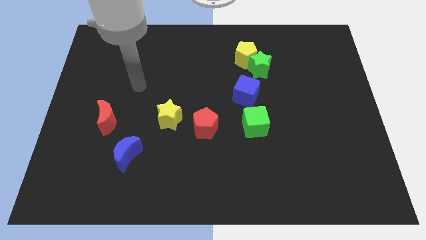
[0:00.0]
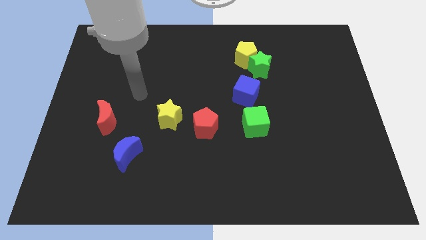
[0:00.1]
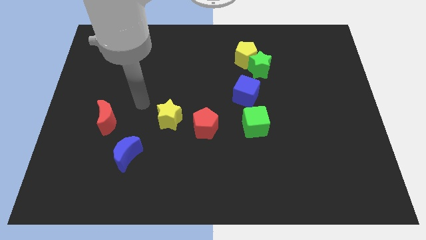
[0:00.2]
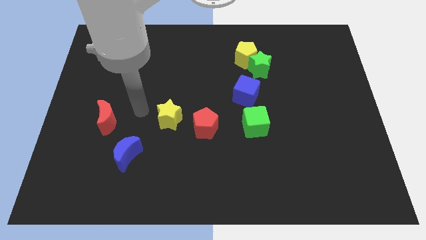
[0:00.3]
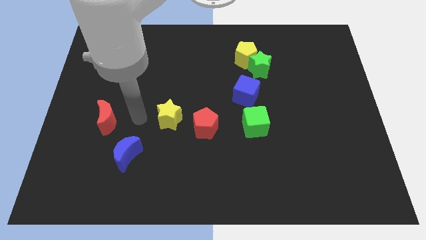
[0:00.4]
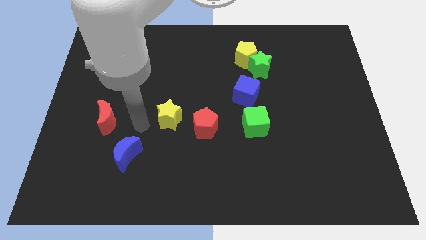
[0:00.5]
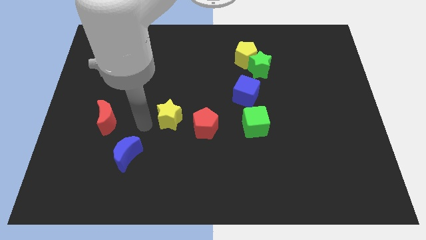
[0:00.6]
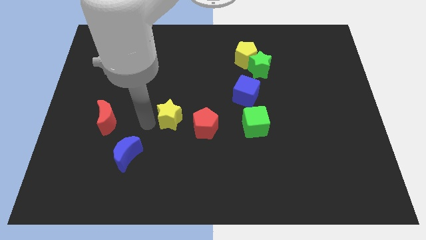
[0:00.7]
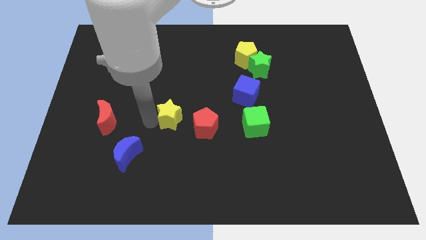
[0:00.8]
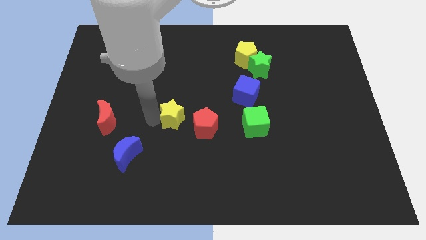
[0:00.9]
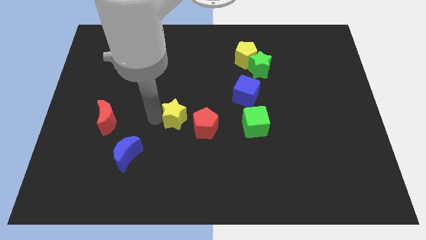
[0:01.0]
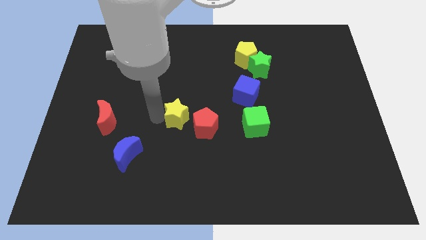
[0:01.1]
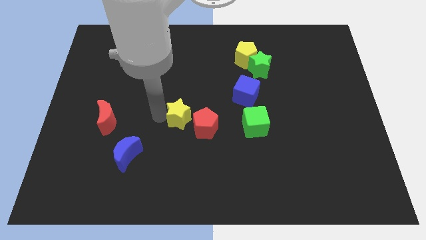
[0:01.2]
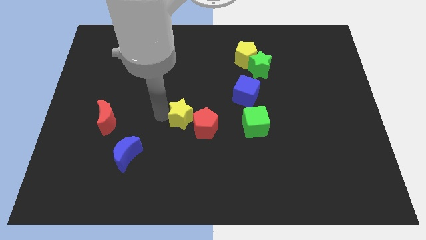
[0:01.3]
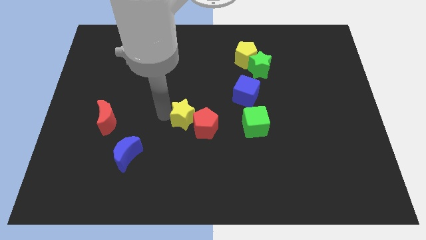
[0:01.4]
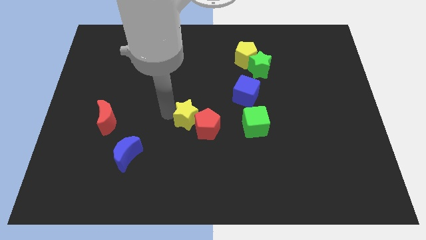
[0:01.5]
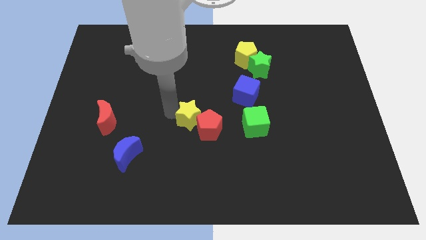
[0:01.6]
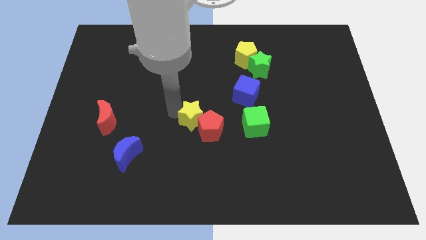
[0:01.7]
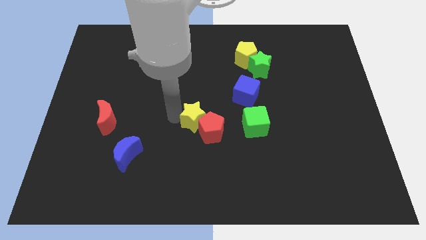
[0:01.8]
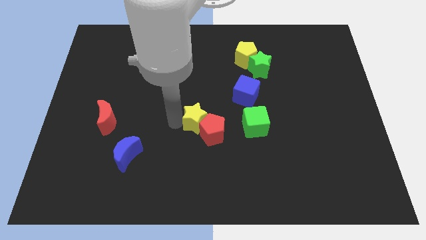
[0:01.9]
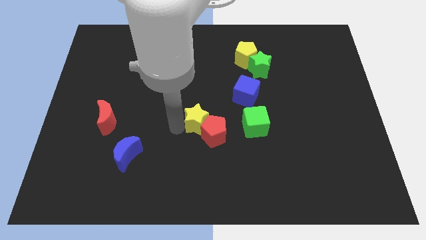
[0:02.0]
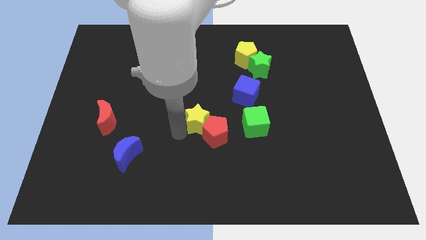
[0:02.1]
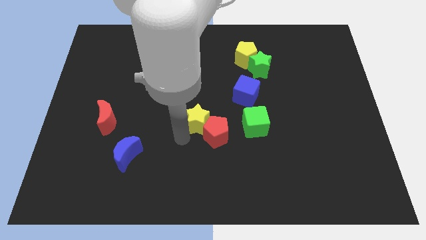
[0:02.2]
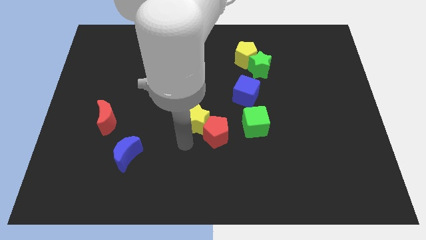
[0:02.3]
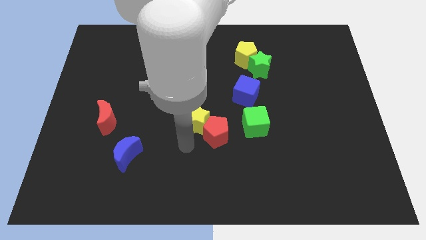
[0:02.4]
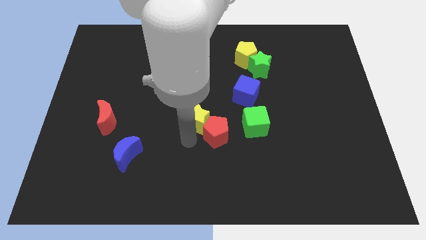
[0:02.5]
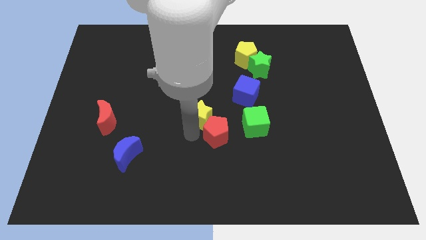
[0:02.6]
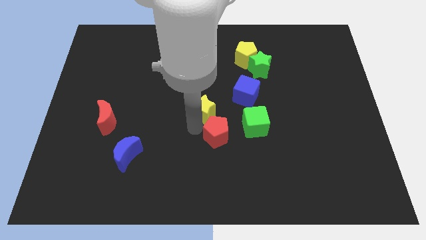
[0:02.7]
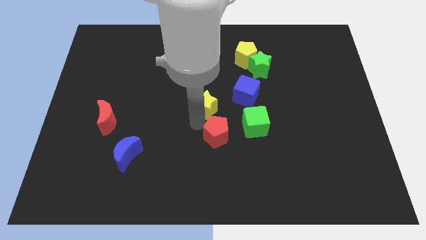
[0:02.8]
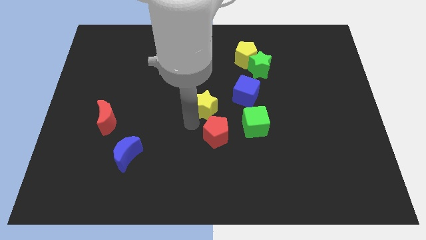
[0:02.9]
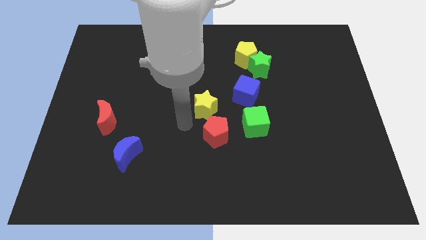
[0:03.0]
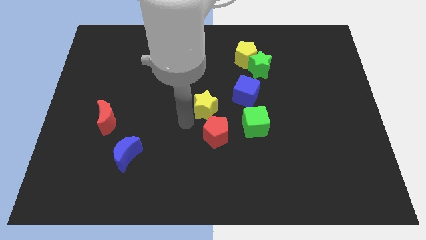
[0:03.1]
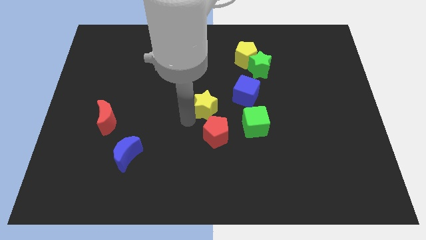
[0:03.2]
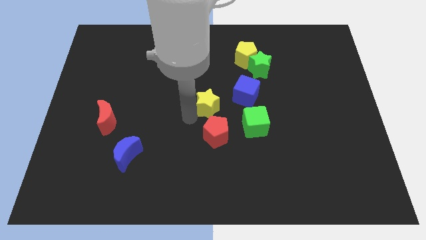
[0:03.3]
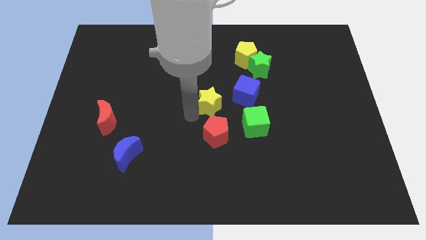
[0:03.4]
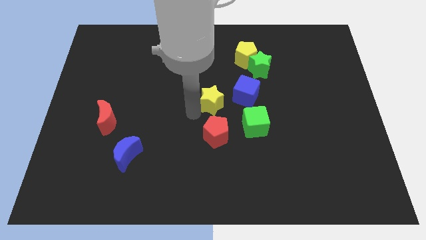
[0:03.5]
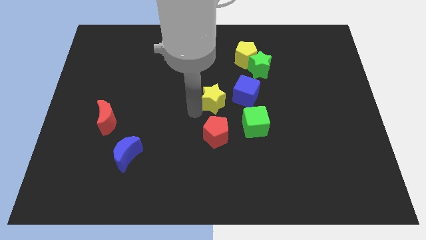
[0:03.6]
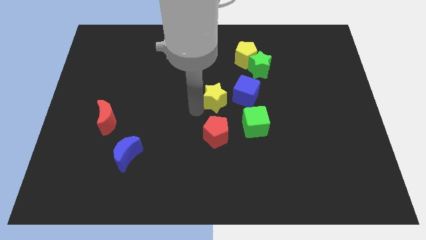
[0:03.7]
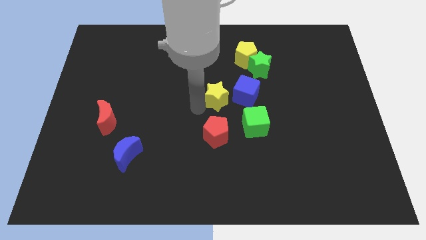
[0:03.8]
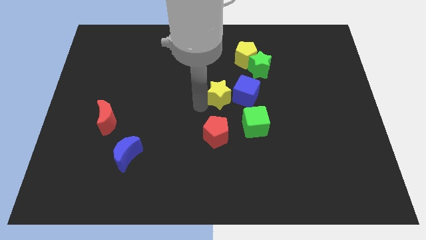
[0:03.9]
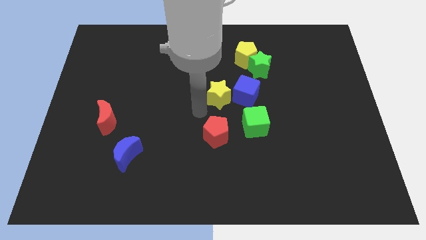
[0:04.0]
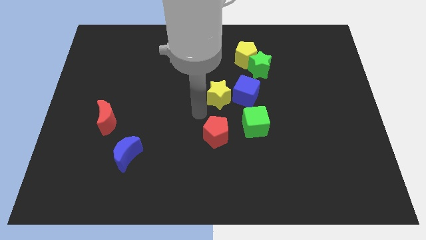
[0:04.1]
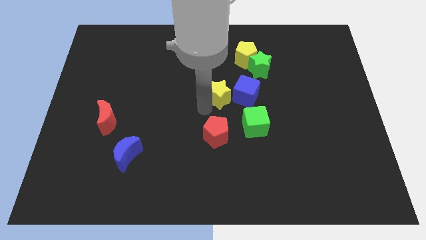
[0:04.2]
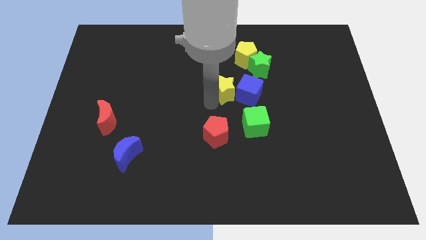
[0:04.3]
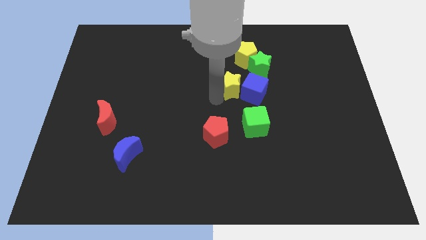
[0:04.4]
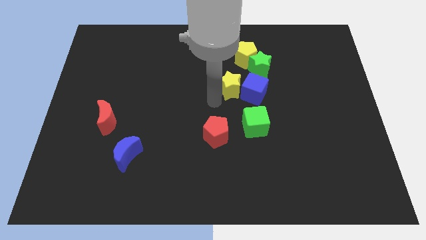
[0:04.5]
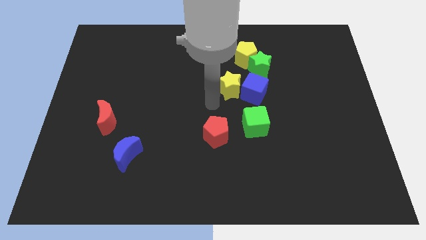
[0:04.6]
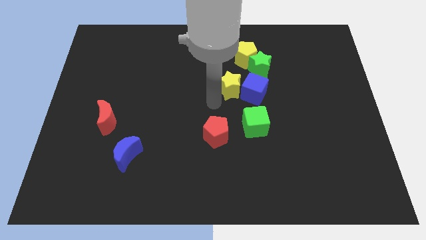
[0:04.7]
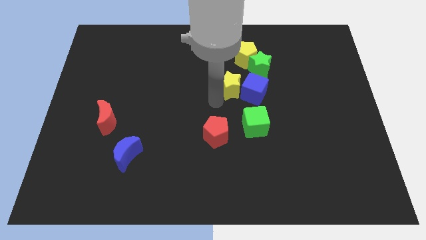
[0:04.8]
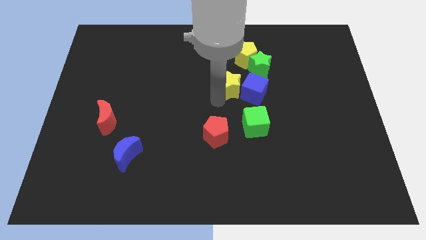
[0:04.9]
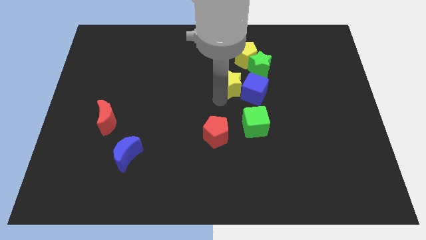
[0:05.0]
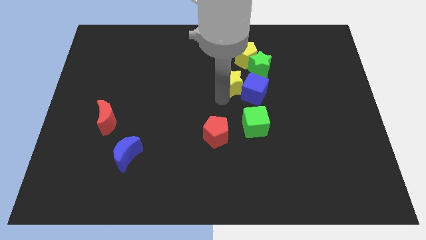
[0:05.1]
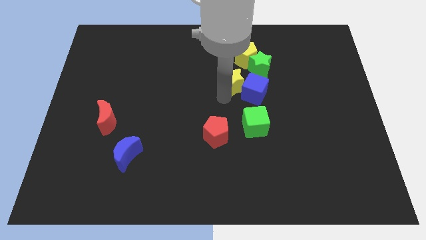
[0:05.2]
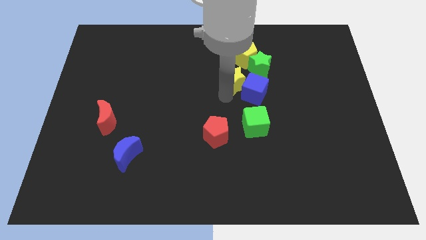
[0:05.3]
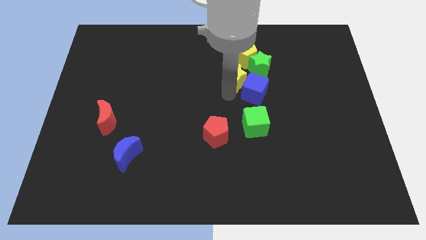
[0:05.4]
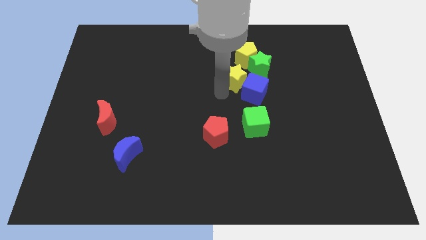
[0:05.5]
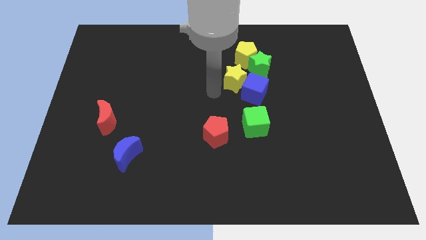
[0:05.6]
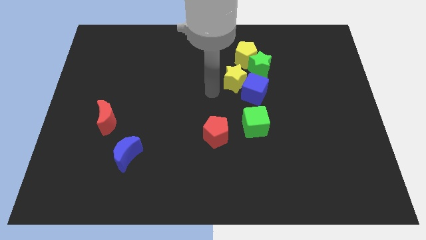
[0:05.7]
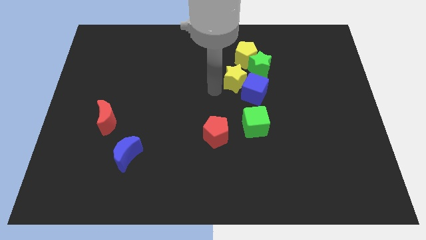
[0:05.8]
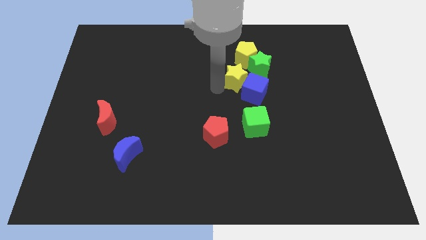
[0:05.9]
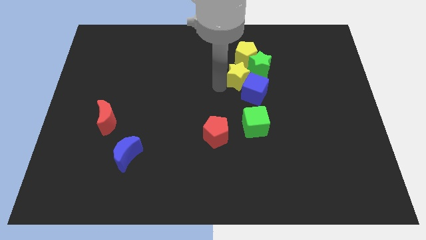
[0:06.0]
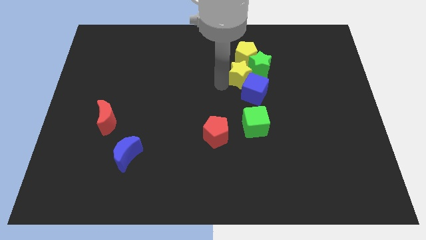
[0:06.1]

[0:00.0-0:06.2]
move the yellow star towards the green star
